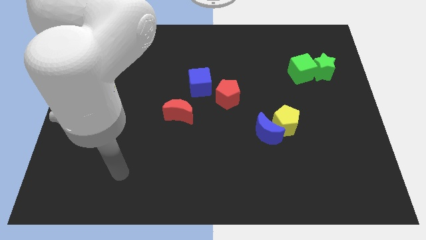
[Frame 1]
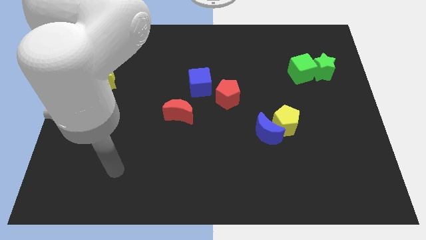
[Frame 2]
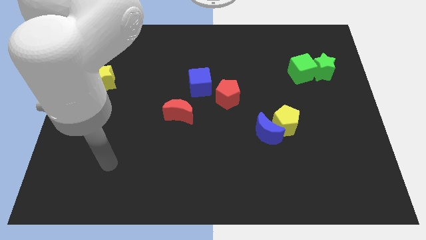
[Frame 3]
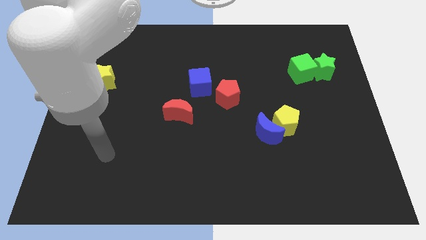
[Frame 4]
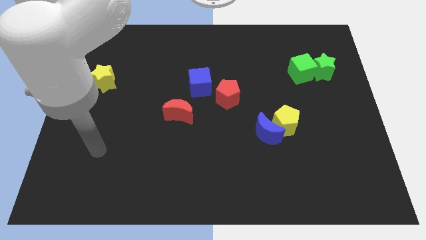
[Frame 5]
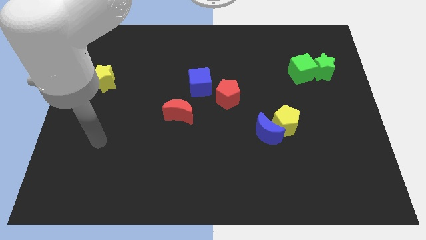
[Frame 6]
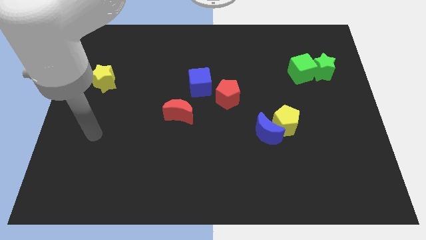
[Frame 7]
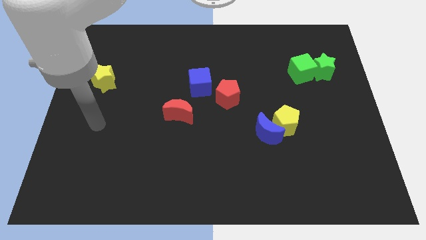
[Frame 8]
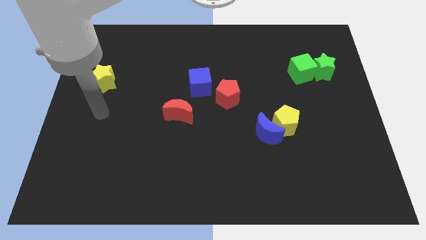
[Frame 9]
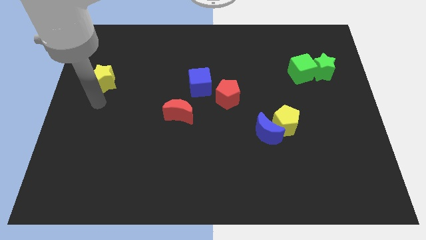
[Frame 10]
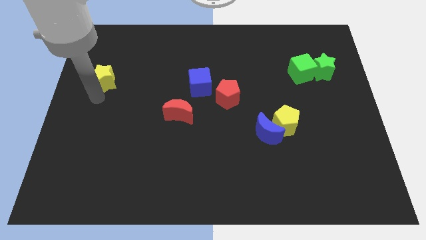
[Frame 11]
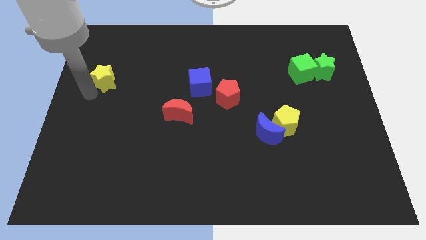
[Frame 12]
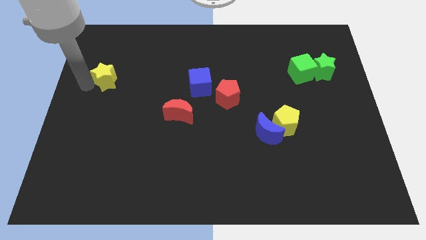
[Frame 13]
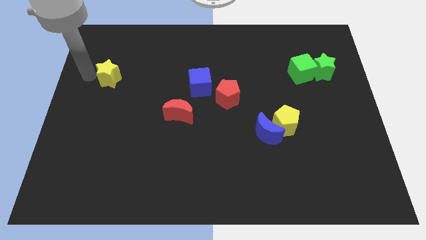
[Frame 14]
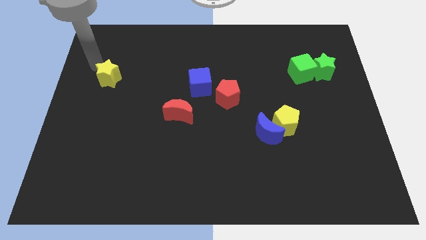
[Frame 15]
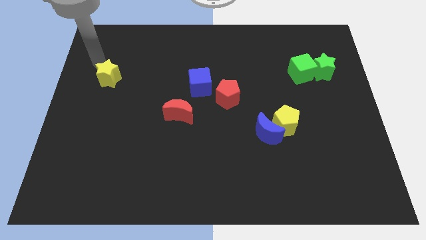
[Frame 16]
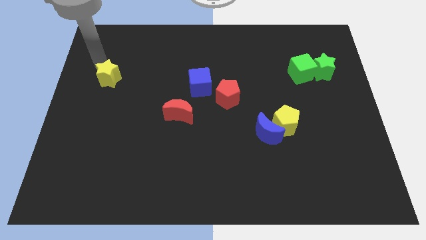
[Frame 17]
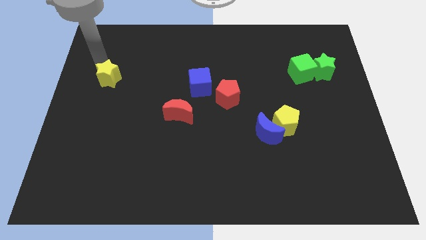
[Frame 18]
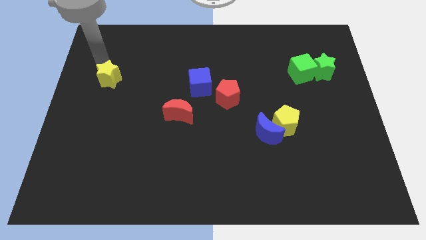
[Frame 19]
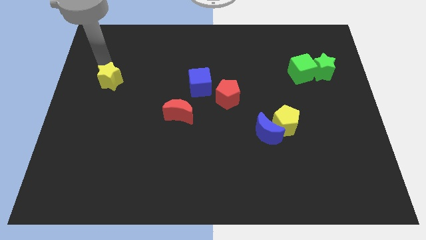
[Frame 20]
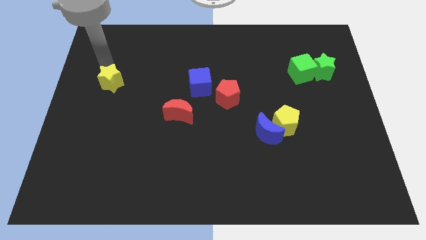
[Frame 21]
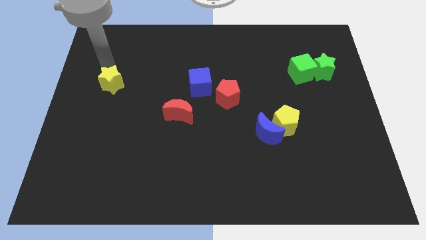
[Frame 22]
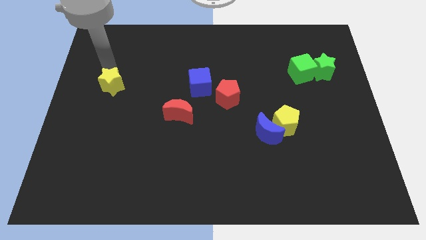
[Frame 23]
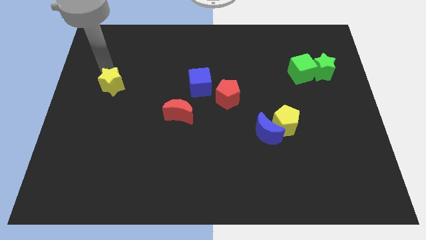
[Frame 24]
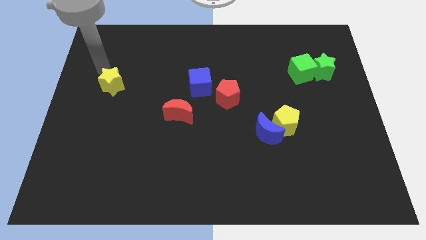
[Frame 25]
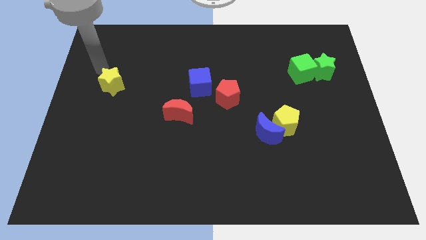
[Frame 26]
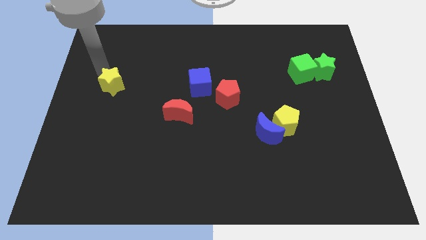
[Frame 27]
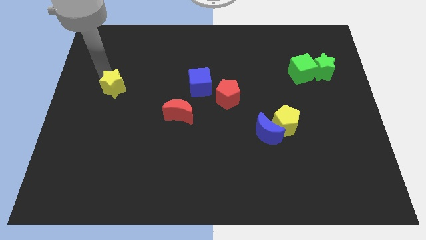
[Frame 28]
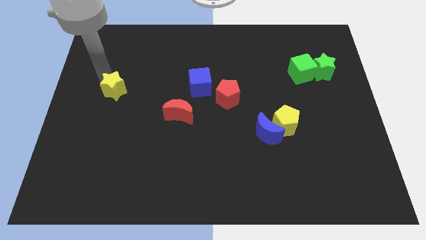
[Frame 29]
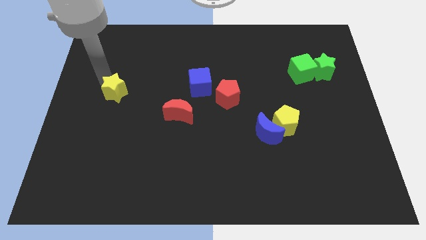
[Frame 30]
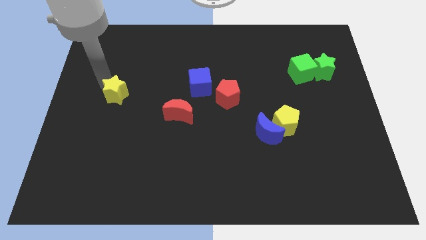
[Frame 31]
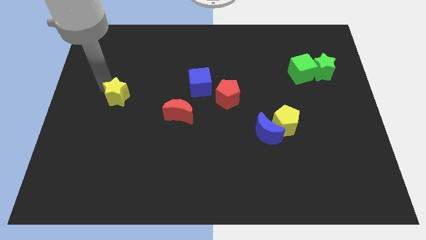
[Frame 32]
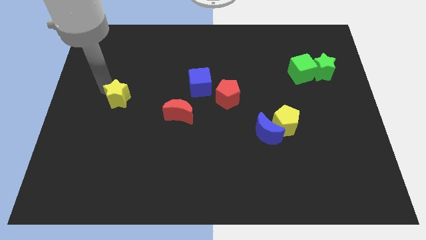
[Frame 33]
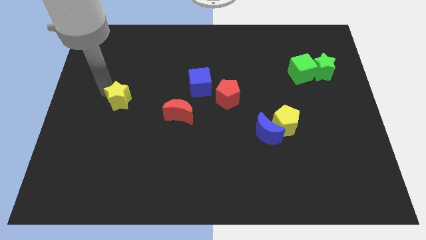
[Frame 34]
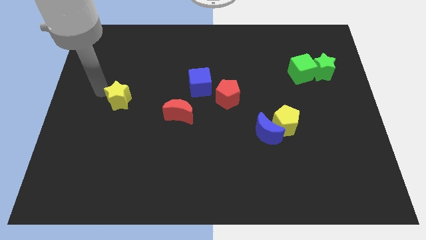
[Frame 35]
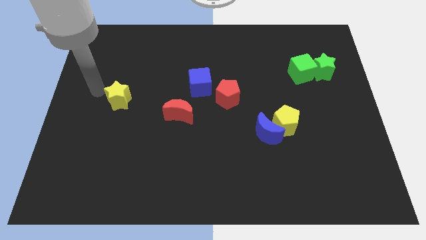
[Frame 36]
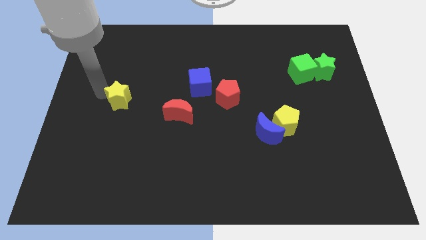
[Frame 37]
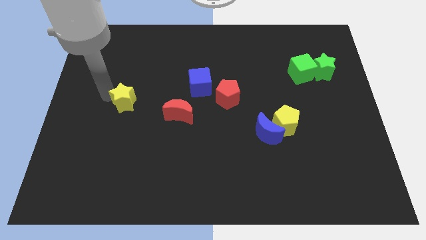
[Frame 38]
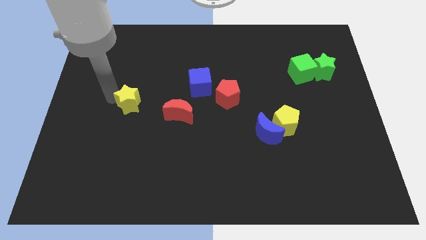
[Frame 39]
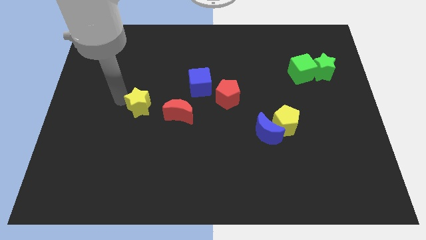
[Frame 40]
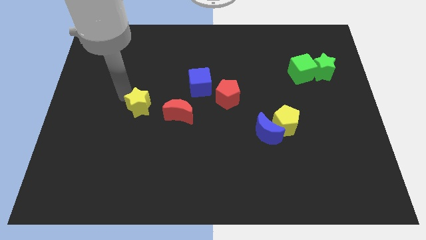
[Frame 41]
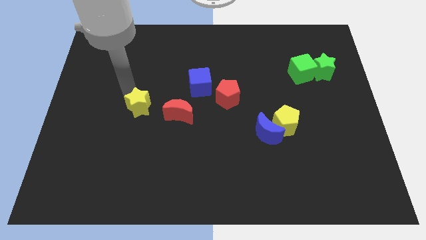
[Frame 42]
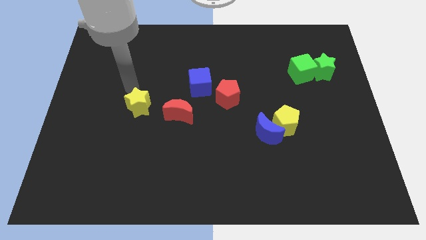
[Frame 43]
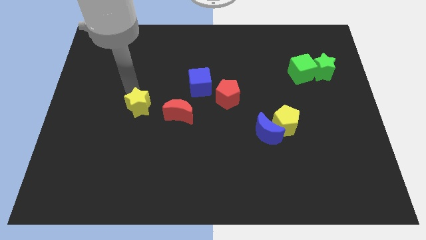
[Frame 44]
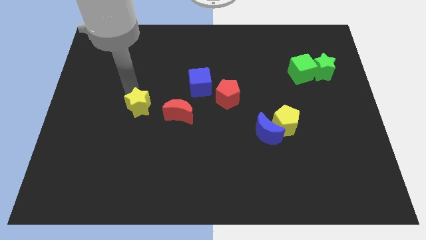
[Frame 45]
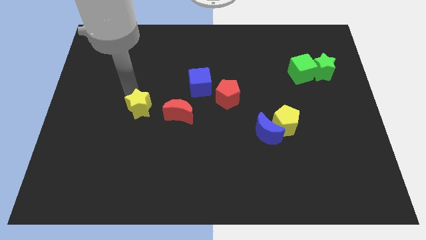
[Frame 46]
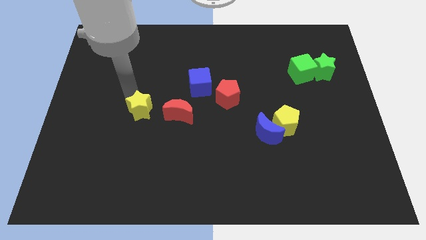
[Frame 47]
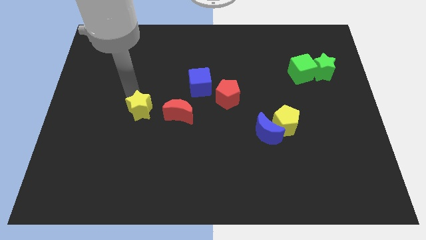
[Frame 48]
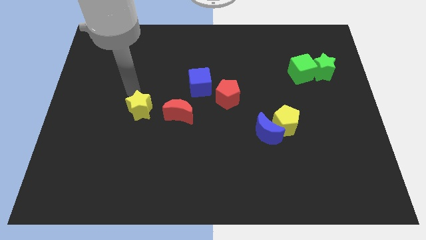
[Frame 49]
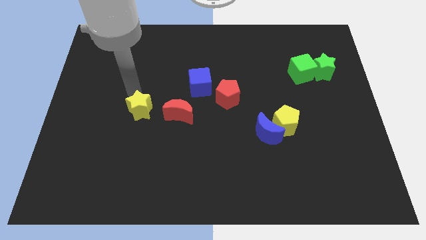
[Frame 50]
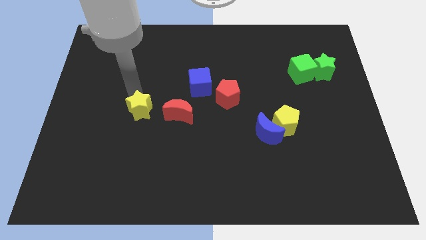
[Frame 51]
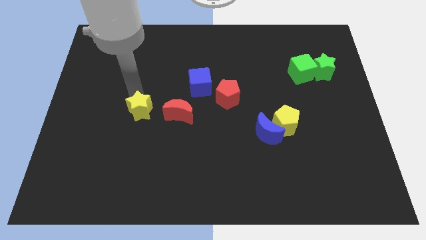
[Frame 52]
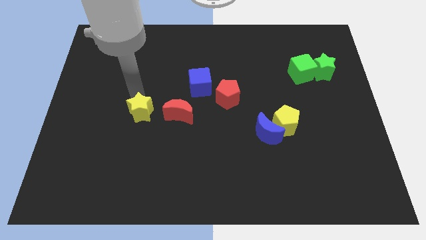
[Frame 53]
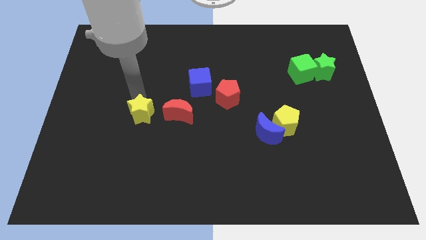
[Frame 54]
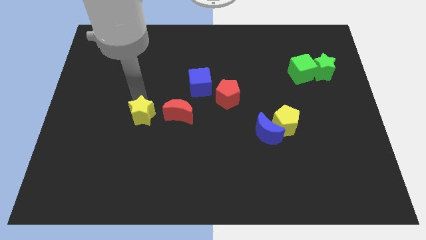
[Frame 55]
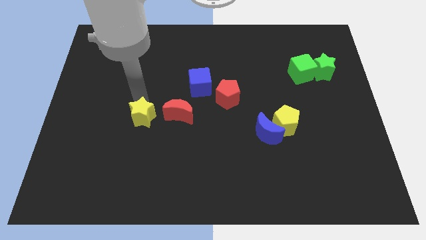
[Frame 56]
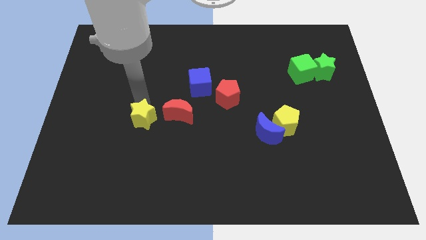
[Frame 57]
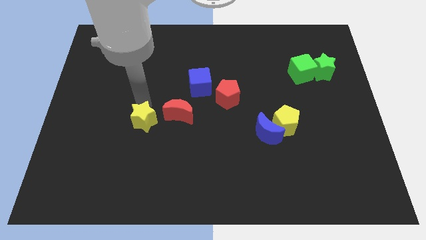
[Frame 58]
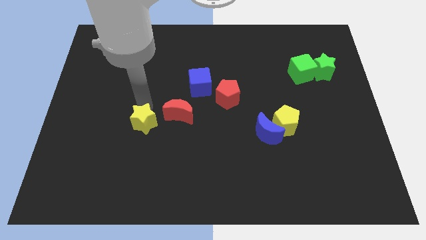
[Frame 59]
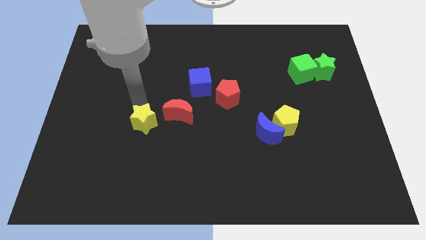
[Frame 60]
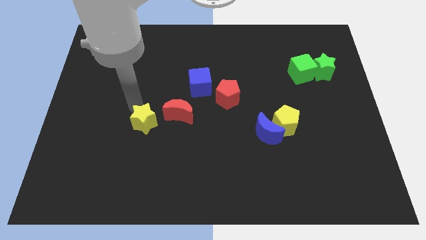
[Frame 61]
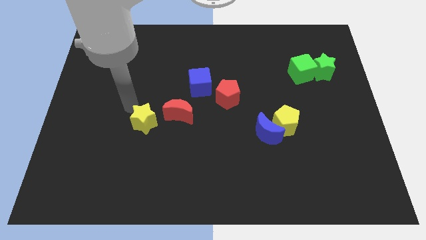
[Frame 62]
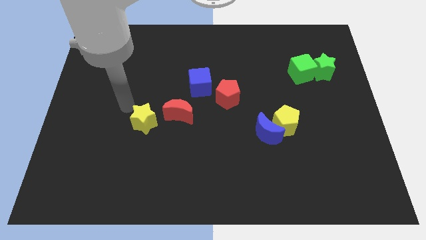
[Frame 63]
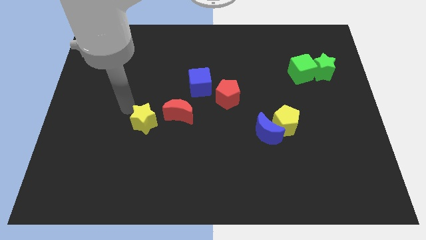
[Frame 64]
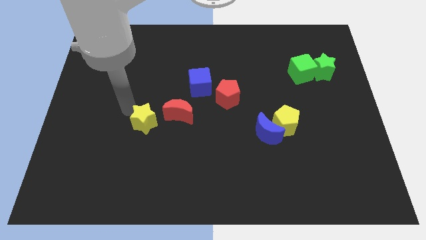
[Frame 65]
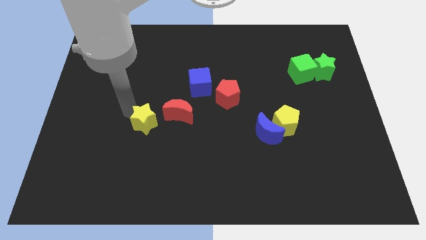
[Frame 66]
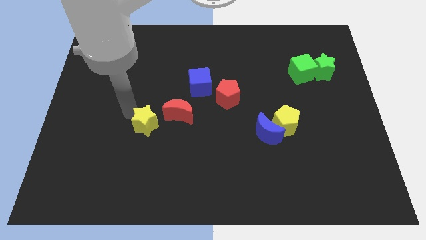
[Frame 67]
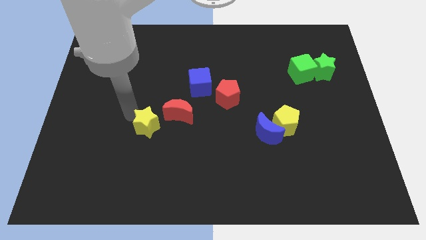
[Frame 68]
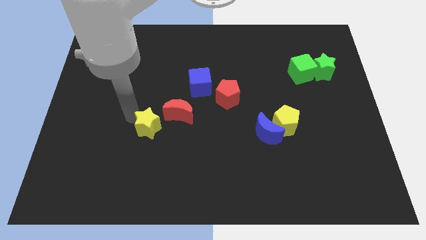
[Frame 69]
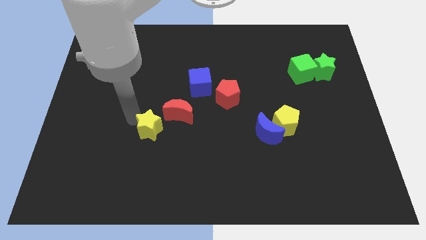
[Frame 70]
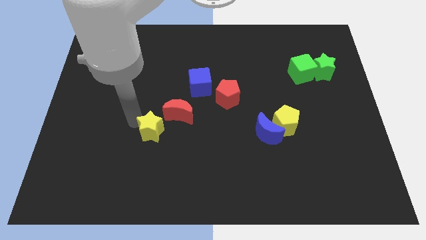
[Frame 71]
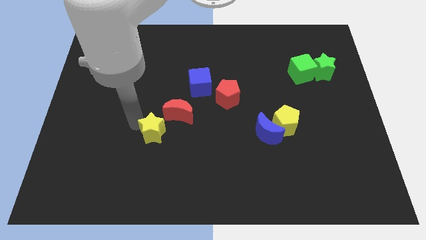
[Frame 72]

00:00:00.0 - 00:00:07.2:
push the yellow star diagonally down and right

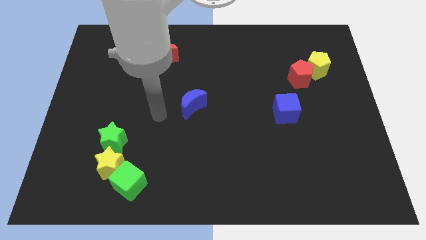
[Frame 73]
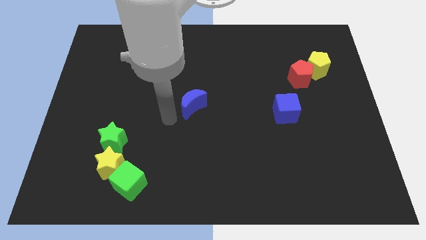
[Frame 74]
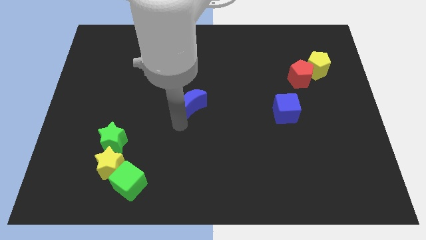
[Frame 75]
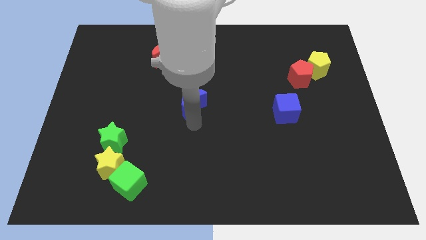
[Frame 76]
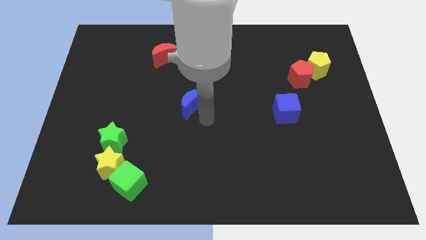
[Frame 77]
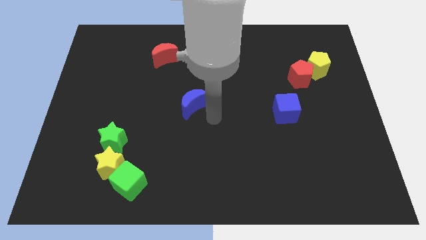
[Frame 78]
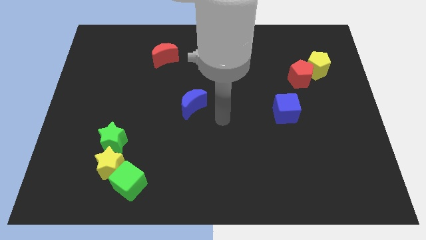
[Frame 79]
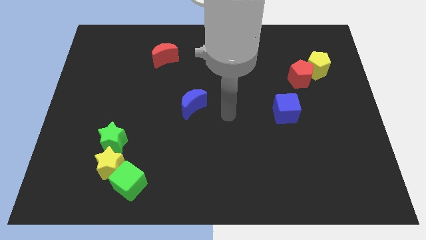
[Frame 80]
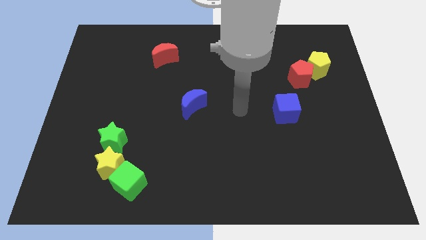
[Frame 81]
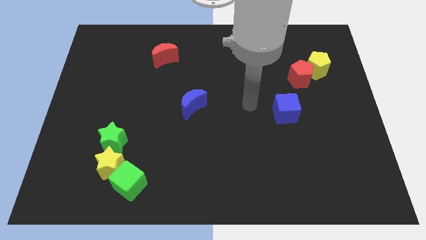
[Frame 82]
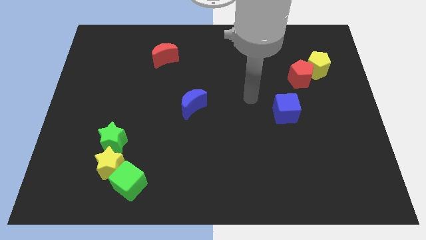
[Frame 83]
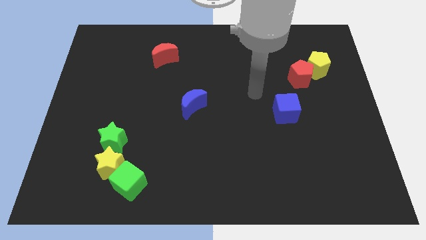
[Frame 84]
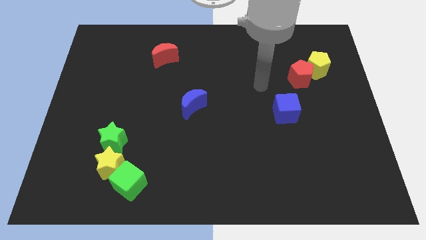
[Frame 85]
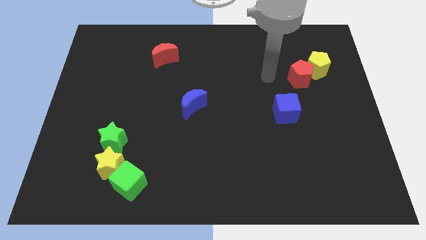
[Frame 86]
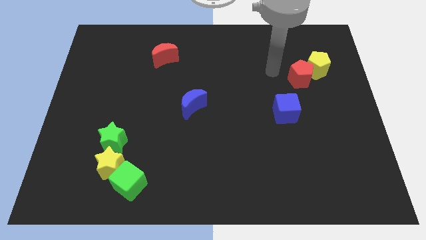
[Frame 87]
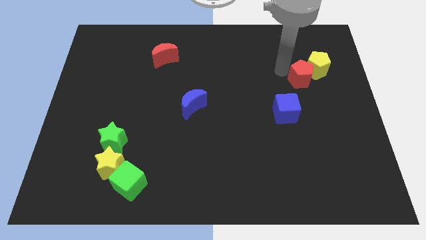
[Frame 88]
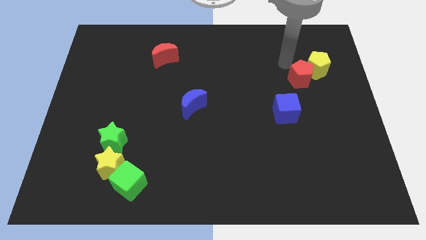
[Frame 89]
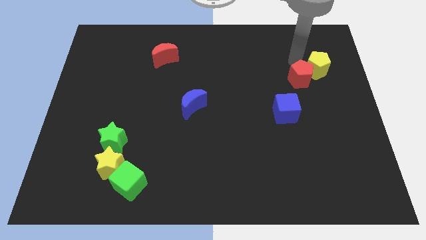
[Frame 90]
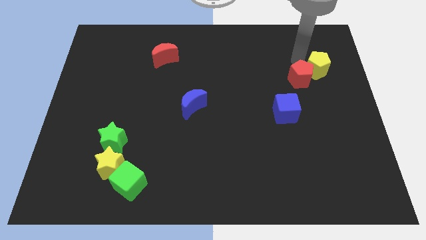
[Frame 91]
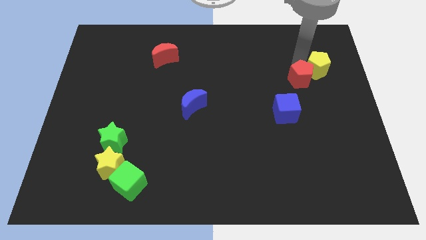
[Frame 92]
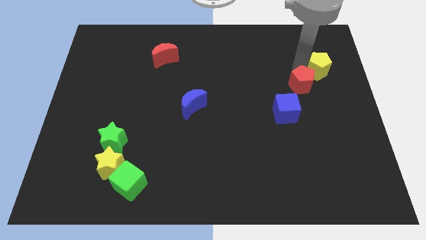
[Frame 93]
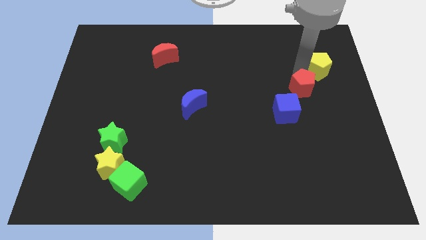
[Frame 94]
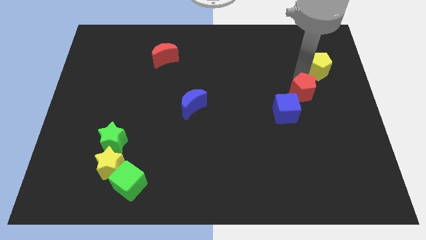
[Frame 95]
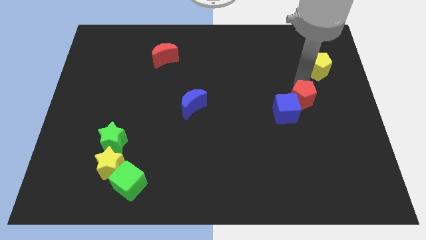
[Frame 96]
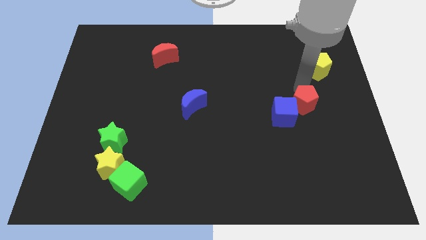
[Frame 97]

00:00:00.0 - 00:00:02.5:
push the red pentagon downwards slightly
